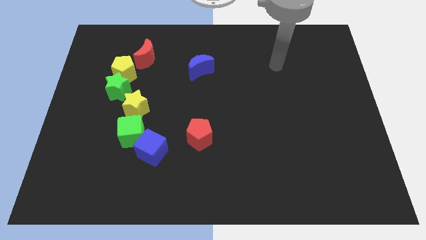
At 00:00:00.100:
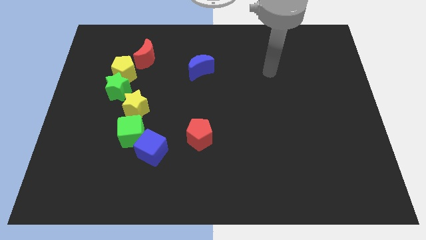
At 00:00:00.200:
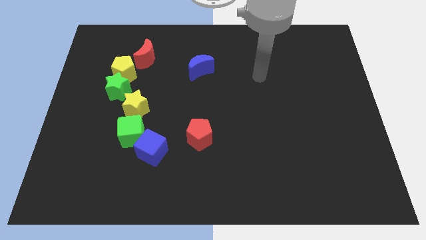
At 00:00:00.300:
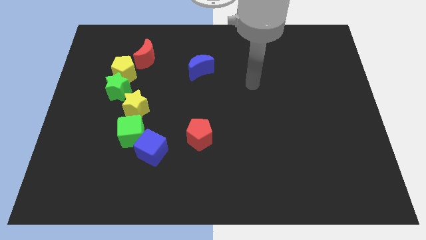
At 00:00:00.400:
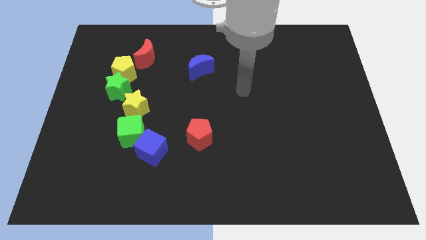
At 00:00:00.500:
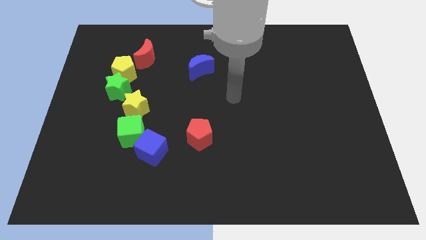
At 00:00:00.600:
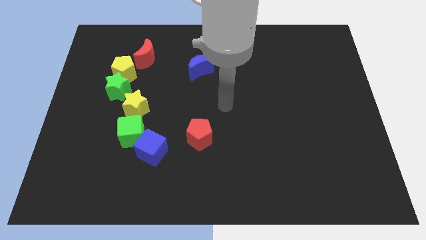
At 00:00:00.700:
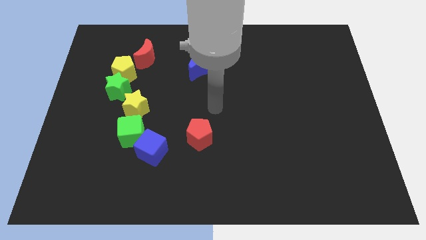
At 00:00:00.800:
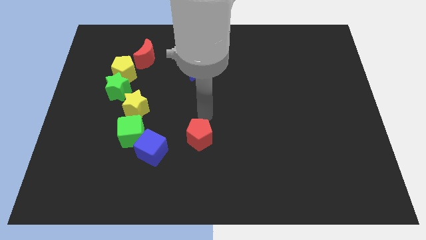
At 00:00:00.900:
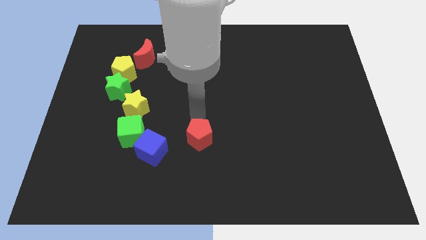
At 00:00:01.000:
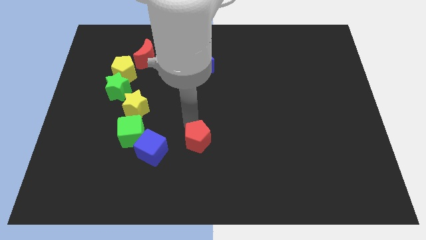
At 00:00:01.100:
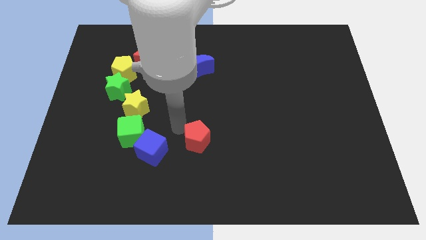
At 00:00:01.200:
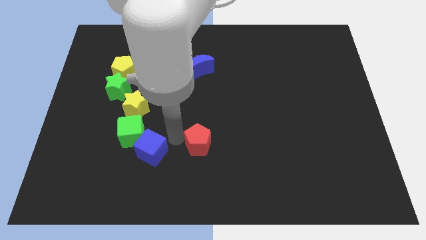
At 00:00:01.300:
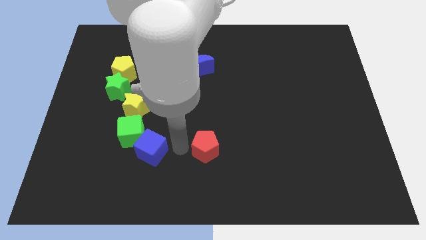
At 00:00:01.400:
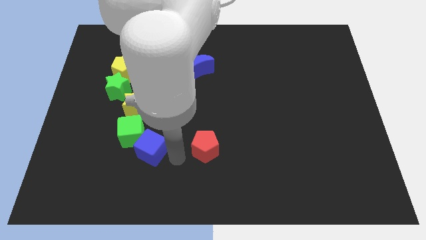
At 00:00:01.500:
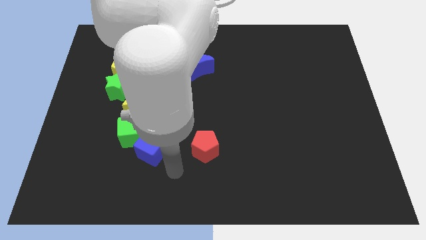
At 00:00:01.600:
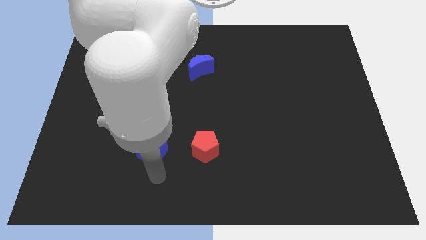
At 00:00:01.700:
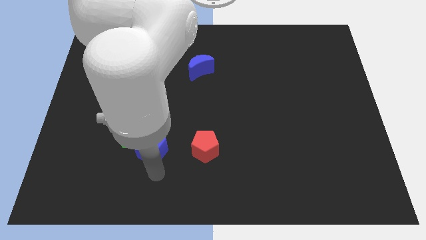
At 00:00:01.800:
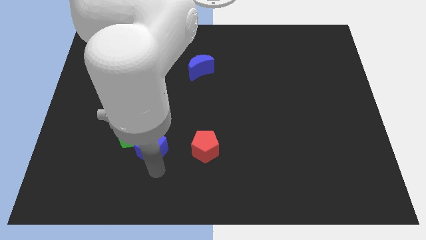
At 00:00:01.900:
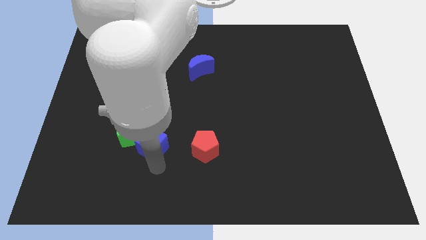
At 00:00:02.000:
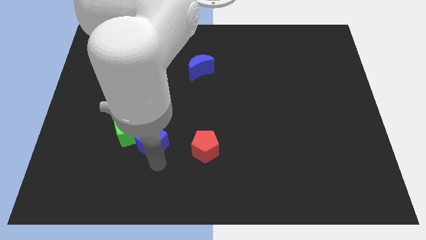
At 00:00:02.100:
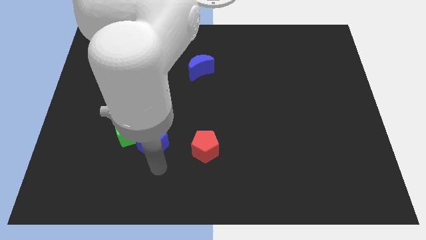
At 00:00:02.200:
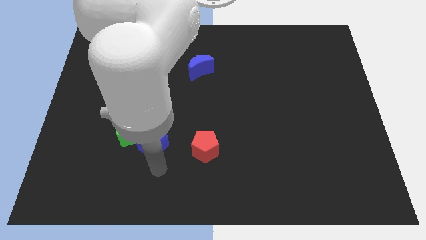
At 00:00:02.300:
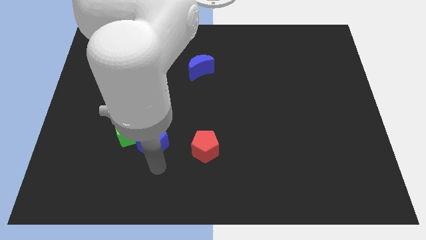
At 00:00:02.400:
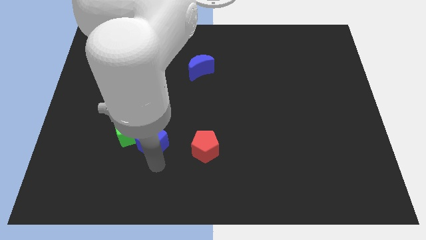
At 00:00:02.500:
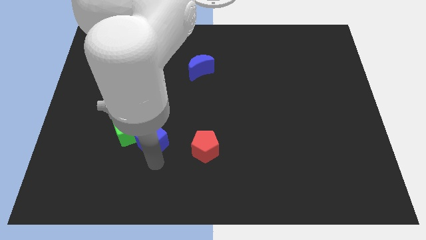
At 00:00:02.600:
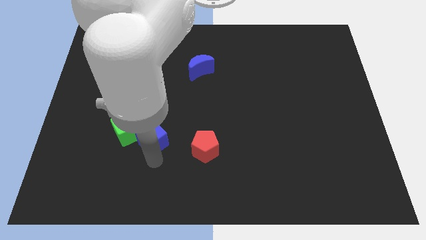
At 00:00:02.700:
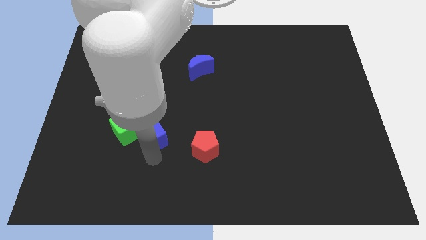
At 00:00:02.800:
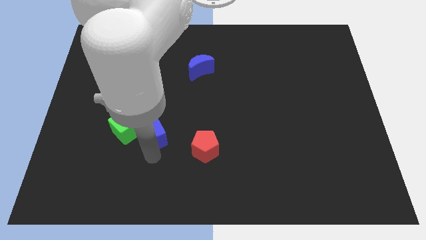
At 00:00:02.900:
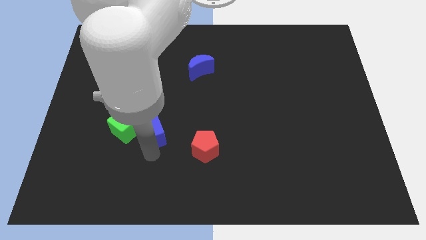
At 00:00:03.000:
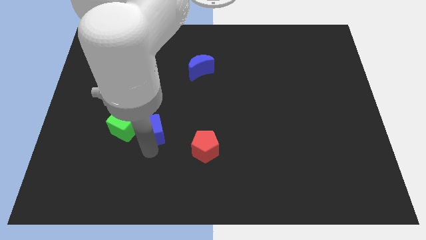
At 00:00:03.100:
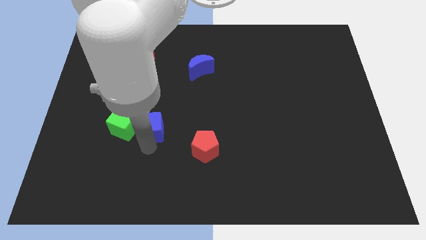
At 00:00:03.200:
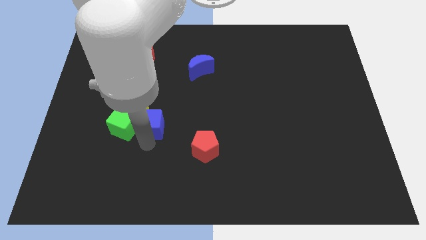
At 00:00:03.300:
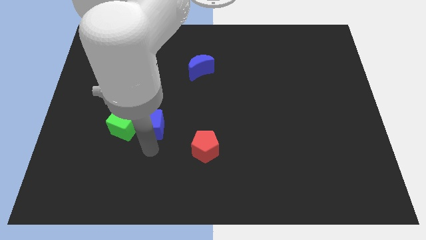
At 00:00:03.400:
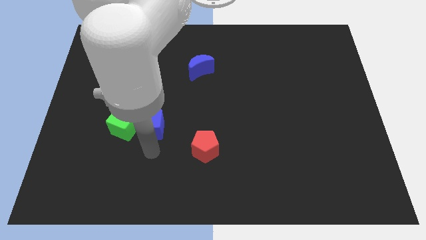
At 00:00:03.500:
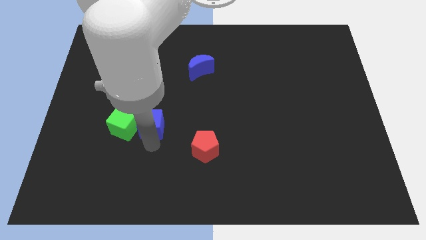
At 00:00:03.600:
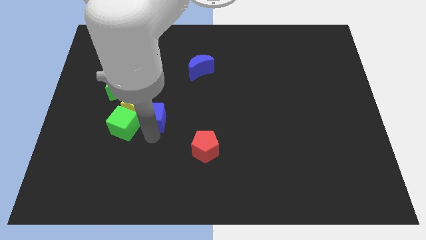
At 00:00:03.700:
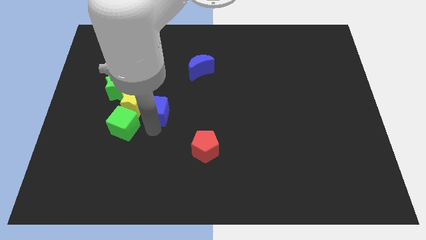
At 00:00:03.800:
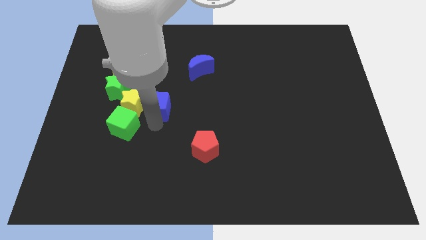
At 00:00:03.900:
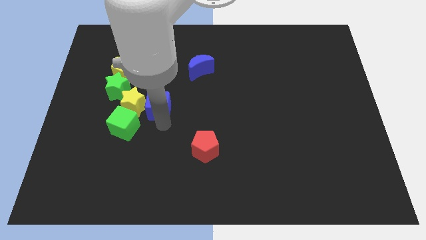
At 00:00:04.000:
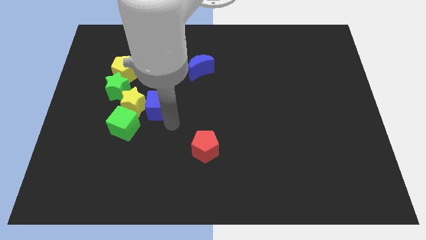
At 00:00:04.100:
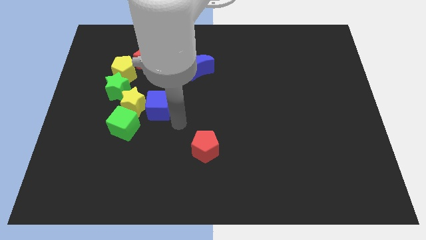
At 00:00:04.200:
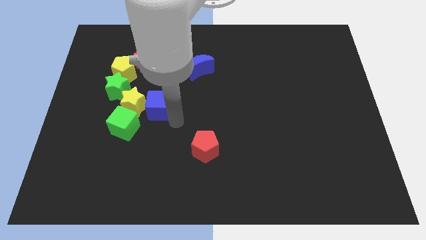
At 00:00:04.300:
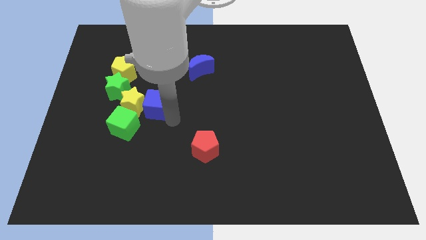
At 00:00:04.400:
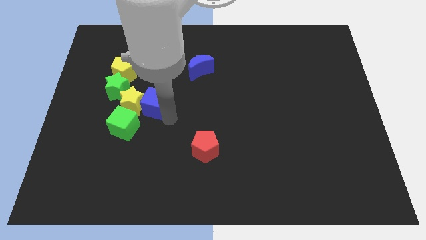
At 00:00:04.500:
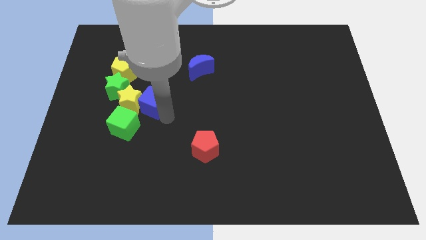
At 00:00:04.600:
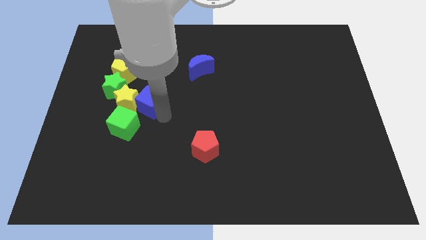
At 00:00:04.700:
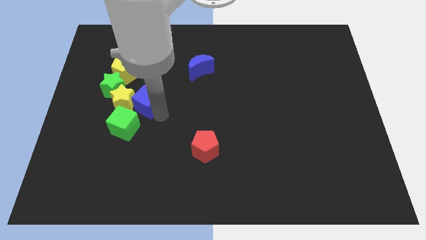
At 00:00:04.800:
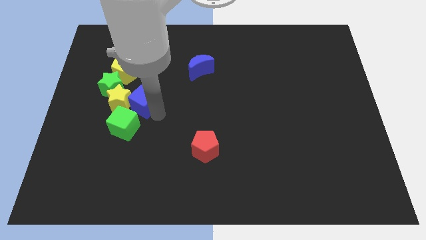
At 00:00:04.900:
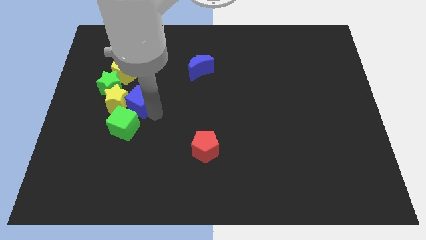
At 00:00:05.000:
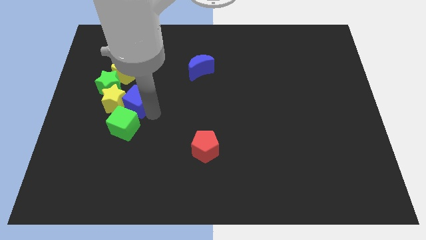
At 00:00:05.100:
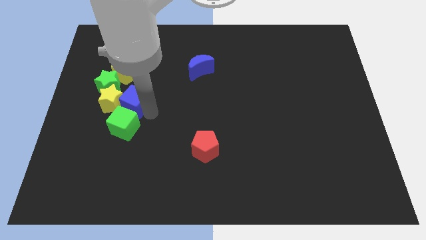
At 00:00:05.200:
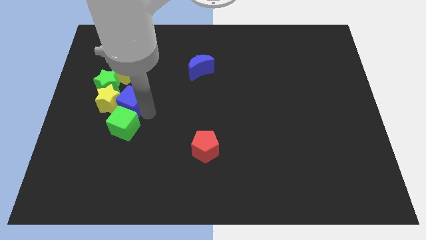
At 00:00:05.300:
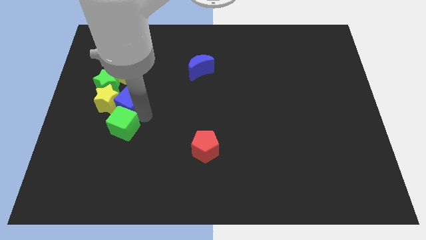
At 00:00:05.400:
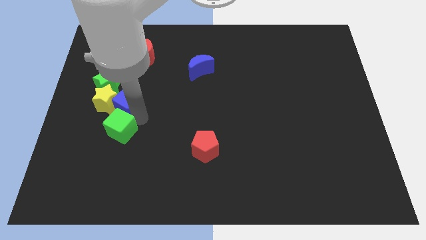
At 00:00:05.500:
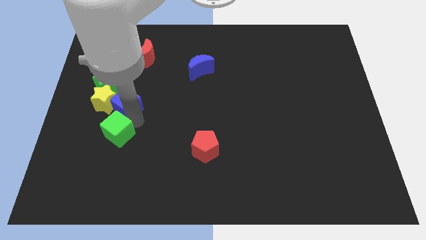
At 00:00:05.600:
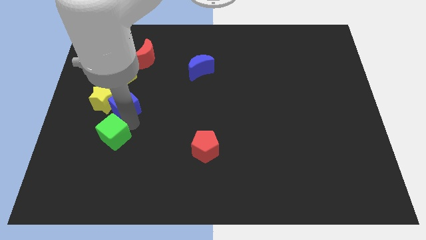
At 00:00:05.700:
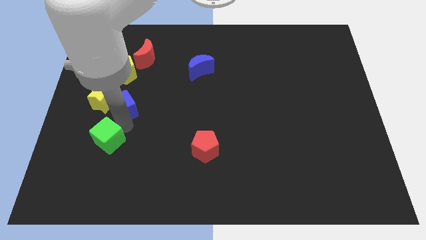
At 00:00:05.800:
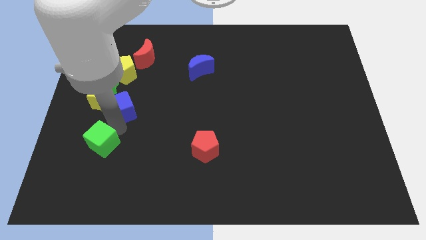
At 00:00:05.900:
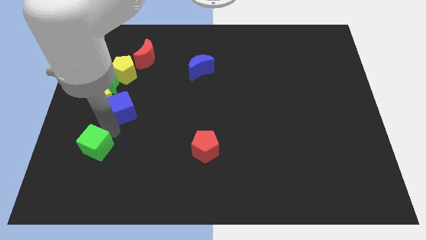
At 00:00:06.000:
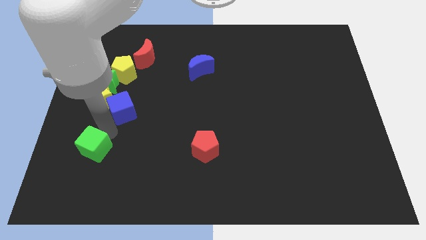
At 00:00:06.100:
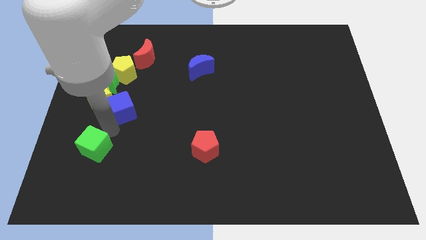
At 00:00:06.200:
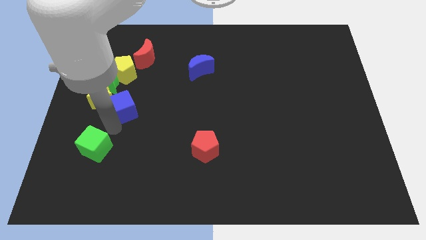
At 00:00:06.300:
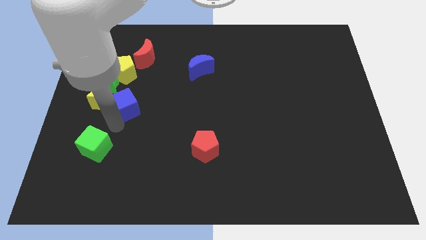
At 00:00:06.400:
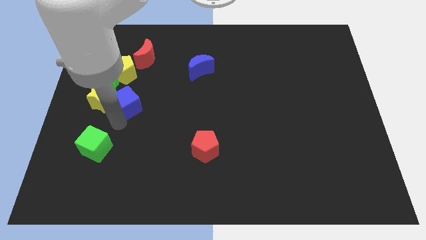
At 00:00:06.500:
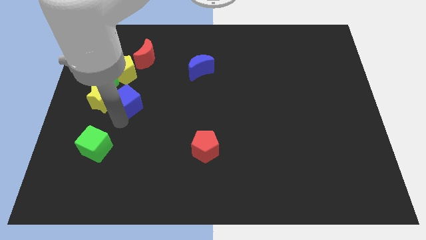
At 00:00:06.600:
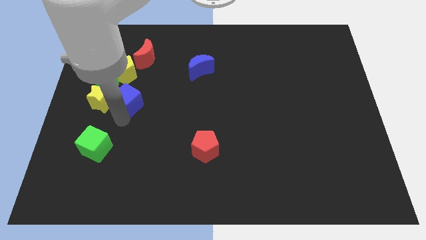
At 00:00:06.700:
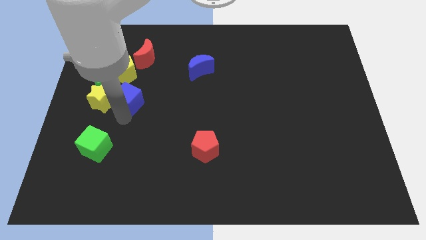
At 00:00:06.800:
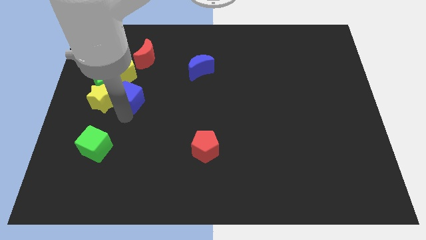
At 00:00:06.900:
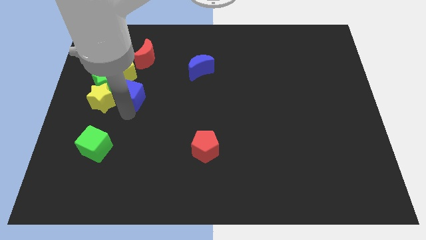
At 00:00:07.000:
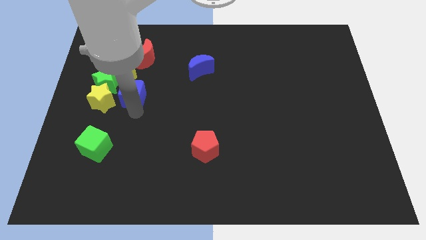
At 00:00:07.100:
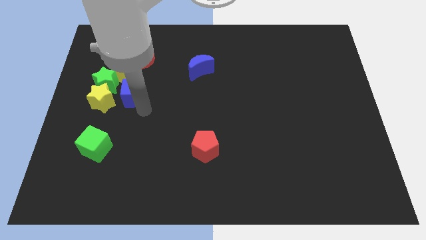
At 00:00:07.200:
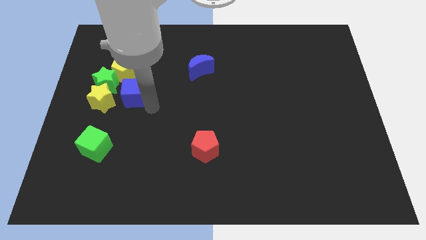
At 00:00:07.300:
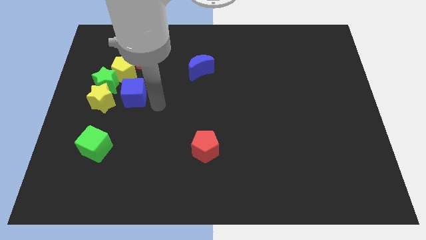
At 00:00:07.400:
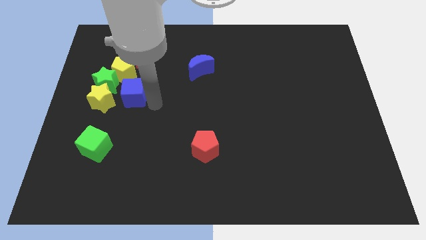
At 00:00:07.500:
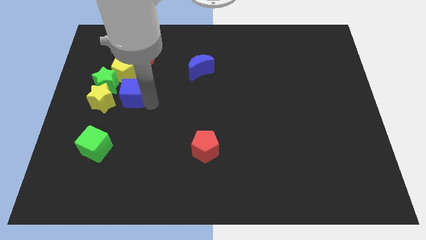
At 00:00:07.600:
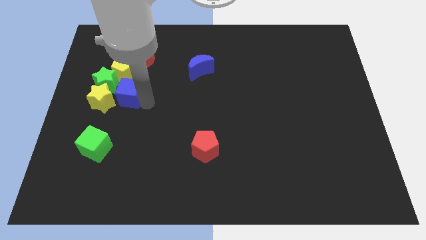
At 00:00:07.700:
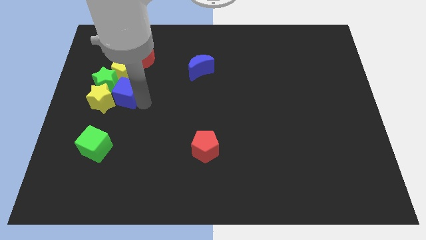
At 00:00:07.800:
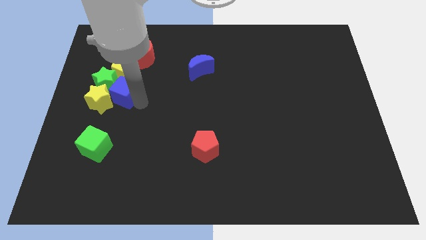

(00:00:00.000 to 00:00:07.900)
push the blue cube to the green star

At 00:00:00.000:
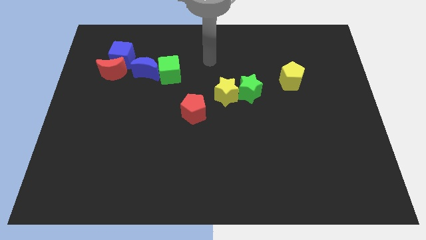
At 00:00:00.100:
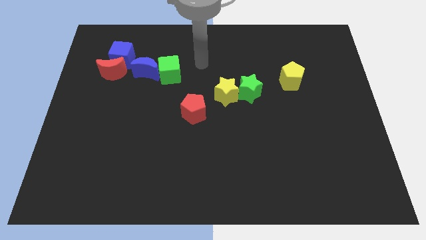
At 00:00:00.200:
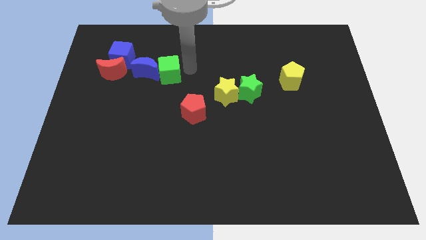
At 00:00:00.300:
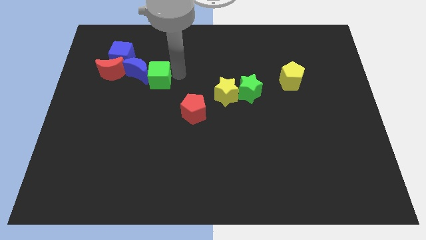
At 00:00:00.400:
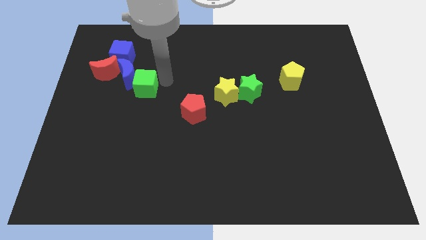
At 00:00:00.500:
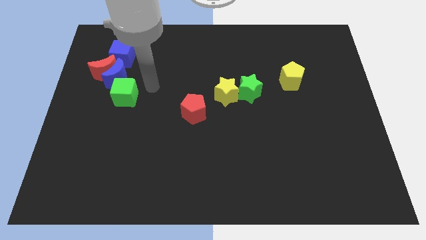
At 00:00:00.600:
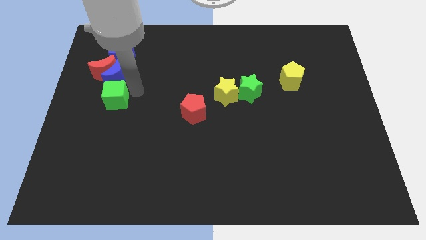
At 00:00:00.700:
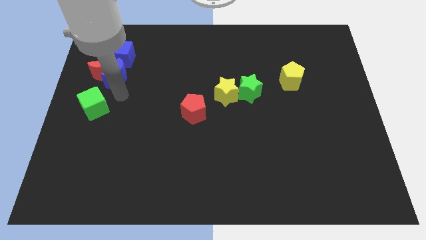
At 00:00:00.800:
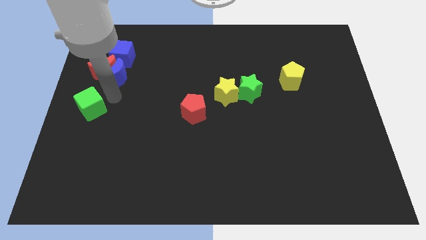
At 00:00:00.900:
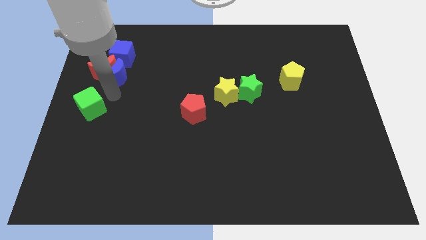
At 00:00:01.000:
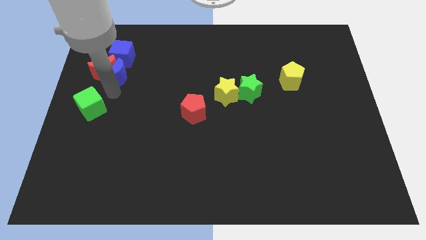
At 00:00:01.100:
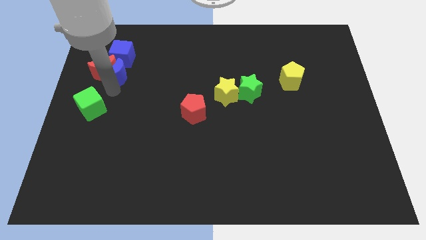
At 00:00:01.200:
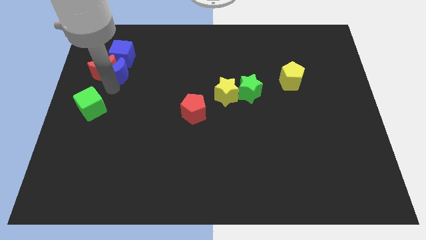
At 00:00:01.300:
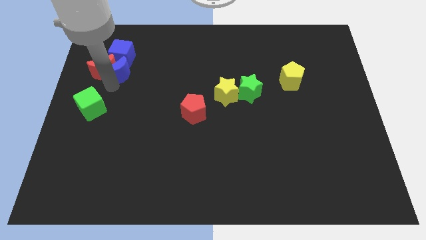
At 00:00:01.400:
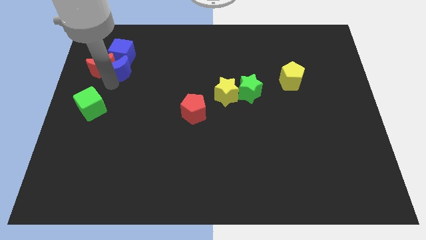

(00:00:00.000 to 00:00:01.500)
slide the blue moon to the blue cube
